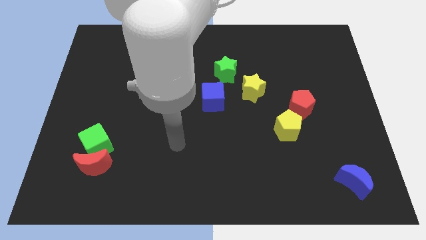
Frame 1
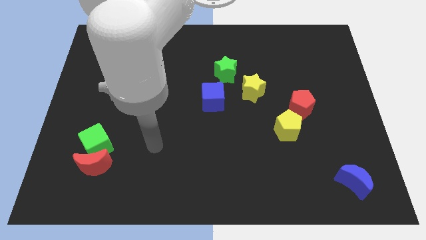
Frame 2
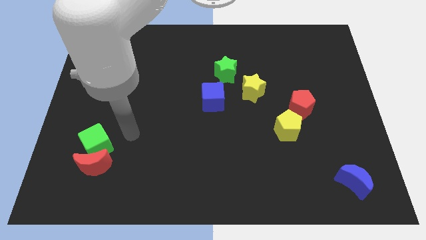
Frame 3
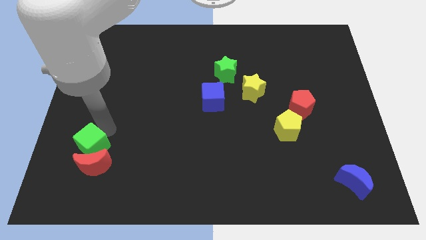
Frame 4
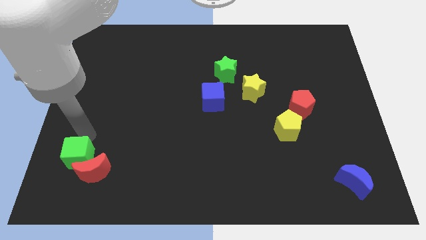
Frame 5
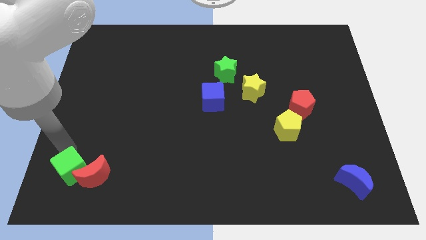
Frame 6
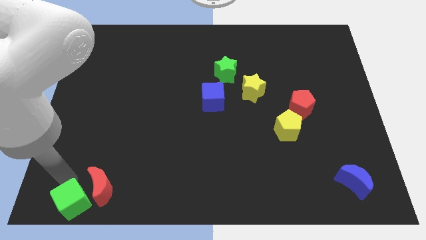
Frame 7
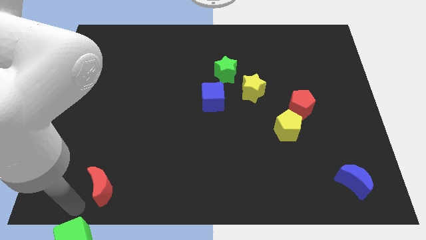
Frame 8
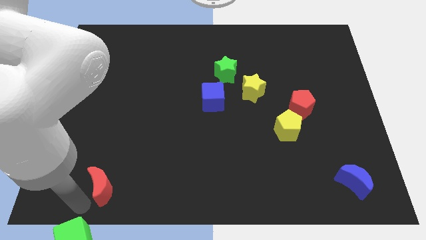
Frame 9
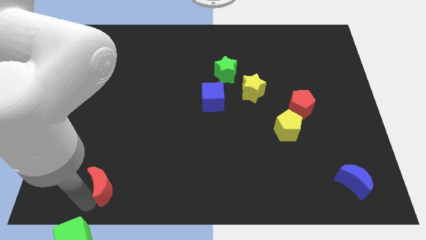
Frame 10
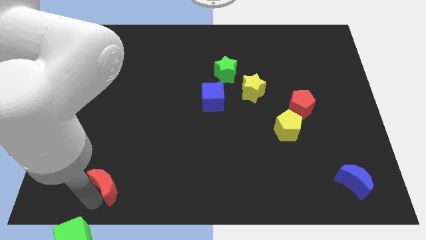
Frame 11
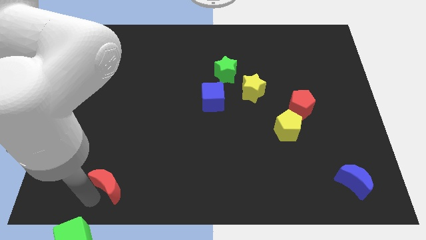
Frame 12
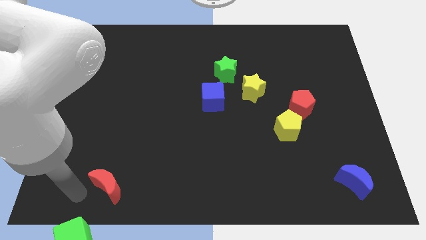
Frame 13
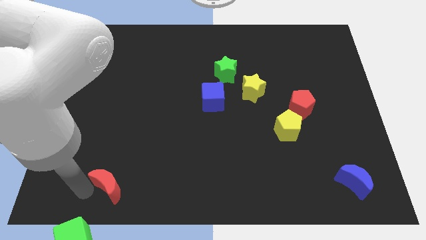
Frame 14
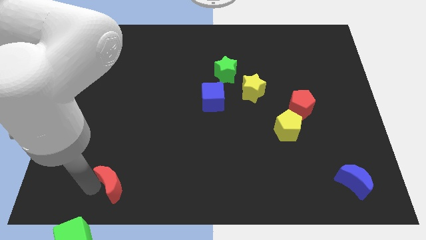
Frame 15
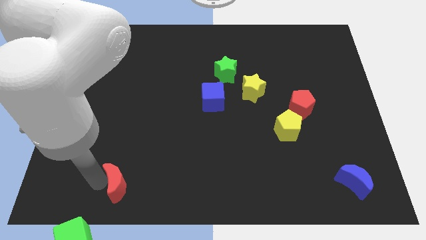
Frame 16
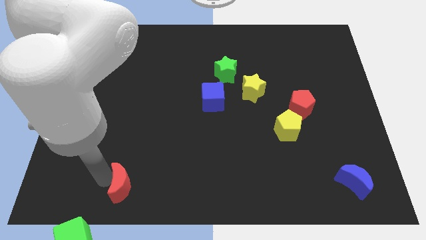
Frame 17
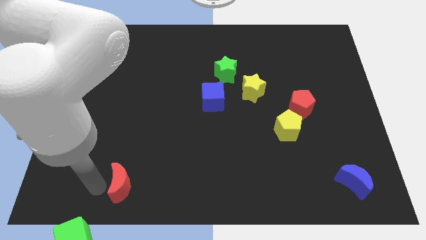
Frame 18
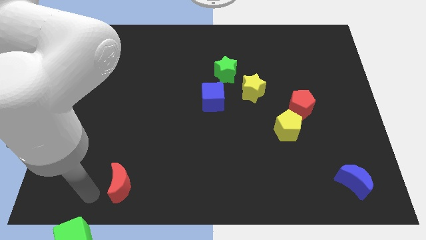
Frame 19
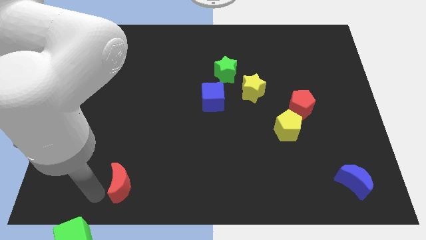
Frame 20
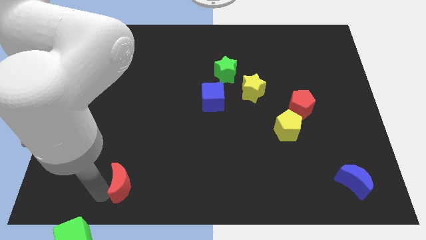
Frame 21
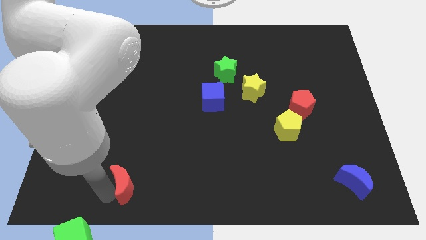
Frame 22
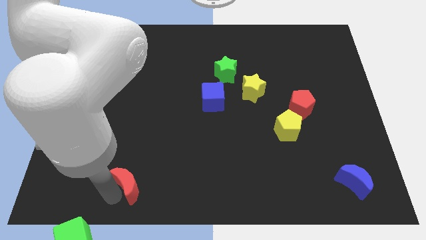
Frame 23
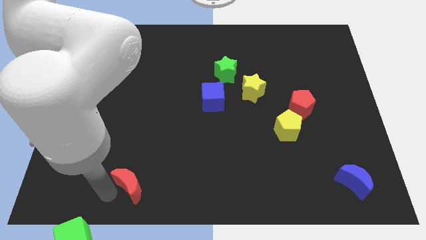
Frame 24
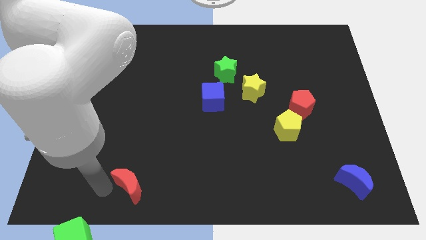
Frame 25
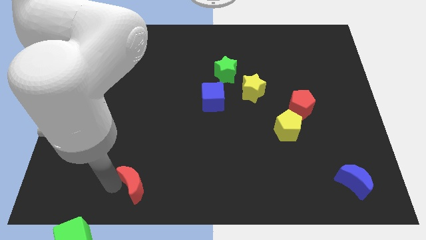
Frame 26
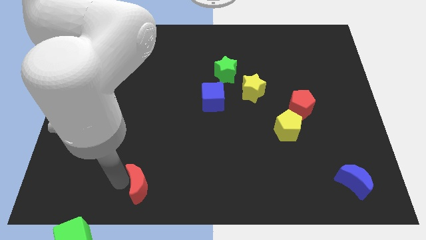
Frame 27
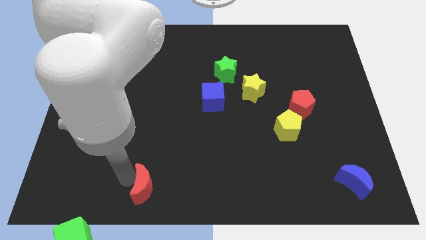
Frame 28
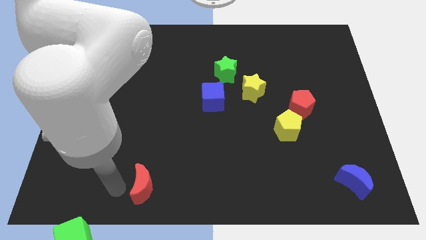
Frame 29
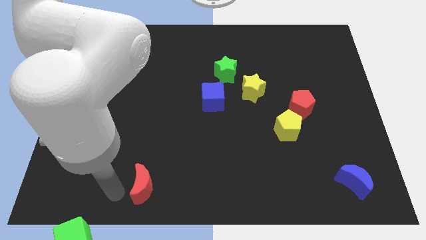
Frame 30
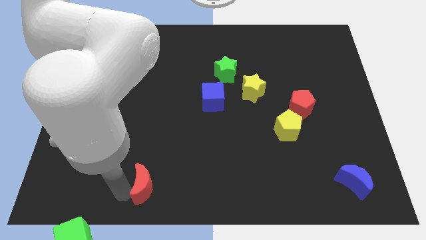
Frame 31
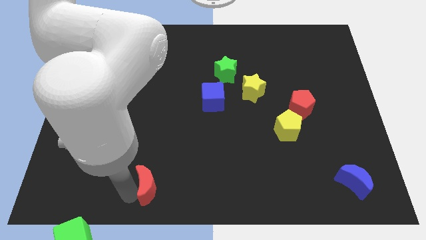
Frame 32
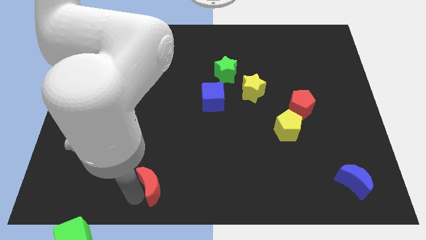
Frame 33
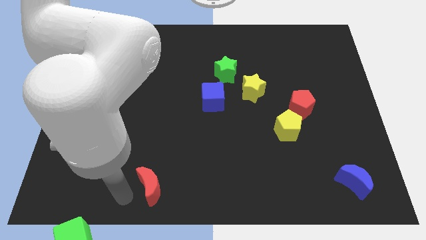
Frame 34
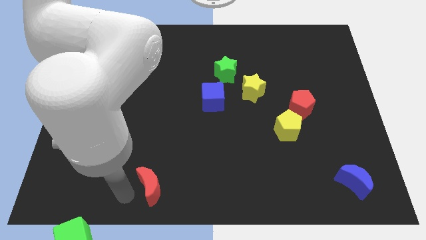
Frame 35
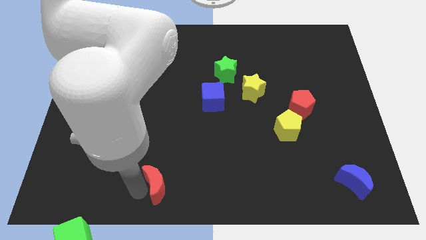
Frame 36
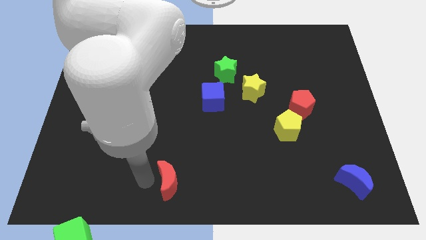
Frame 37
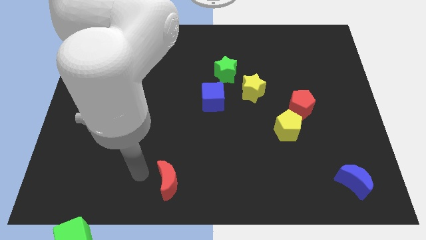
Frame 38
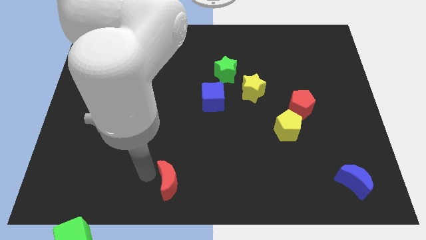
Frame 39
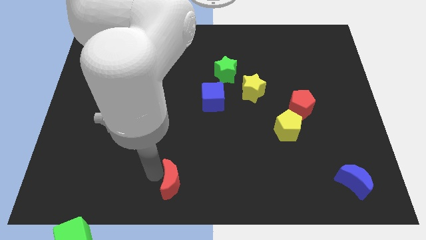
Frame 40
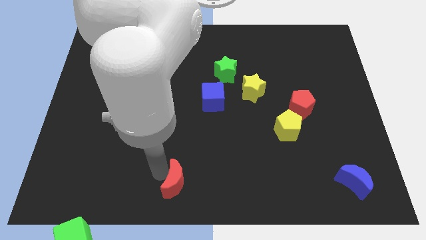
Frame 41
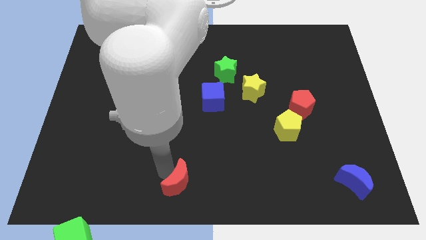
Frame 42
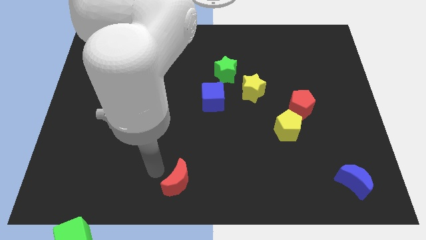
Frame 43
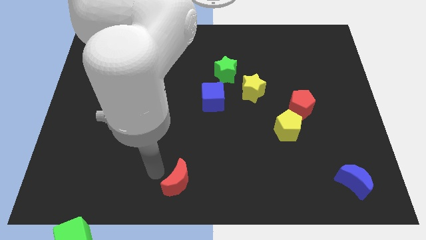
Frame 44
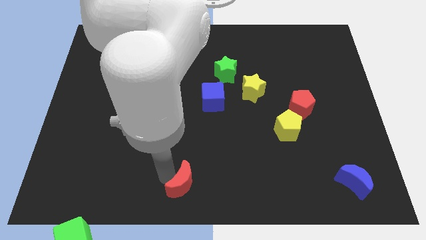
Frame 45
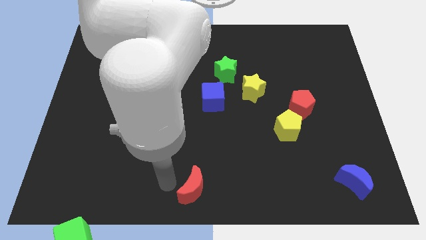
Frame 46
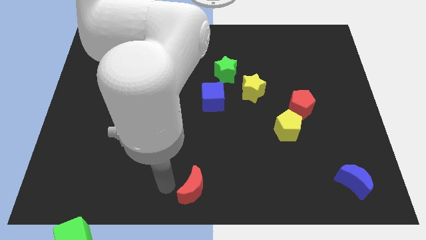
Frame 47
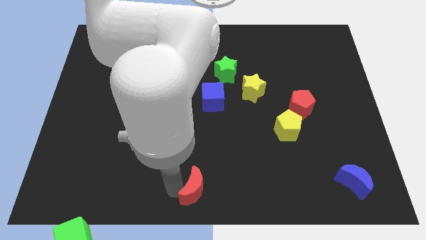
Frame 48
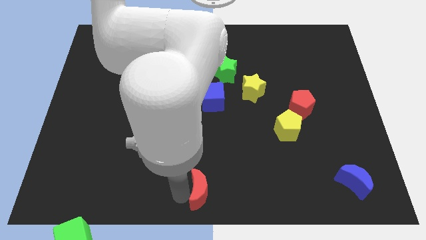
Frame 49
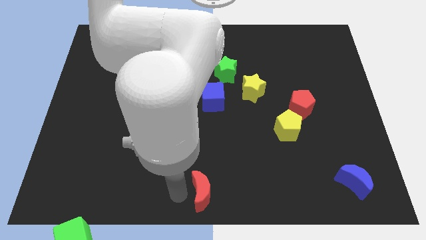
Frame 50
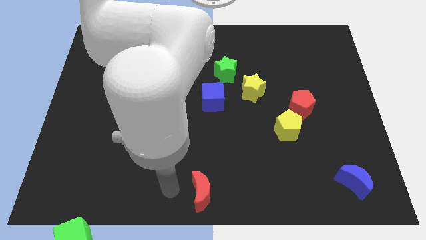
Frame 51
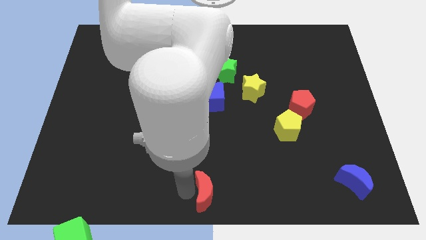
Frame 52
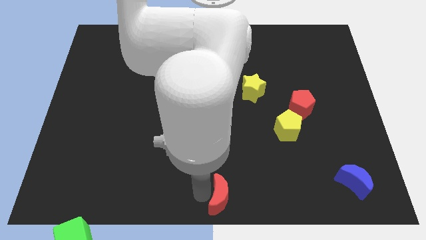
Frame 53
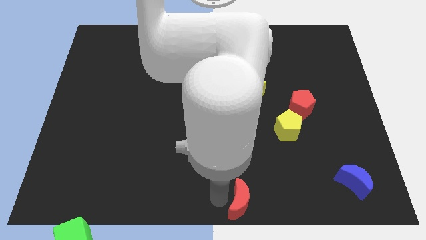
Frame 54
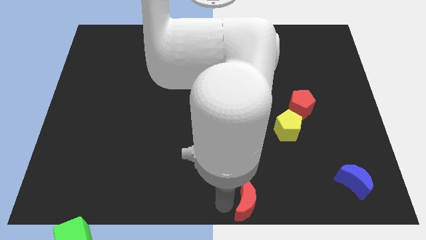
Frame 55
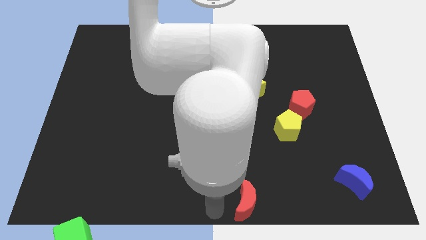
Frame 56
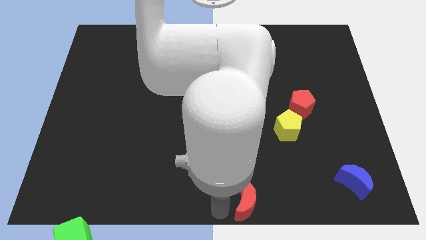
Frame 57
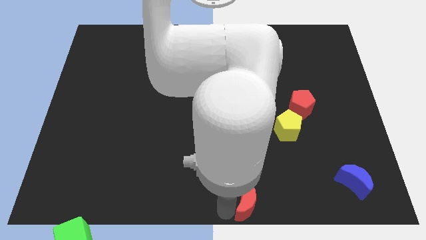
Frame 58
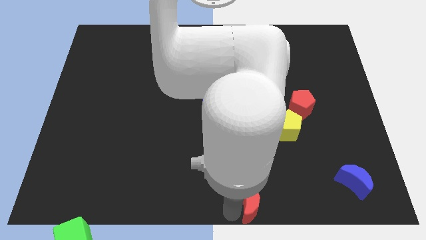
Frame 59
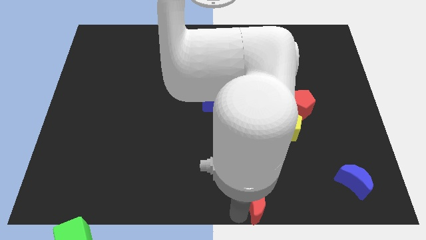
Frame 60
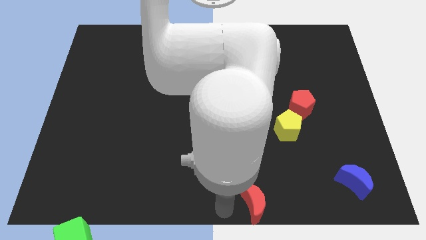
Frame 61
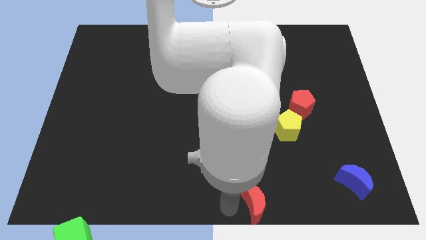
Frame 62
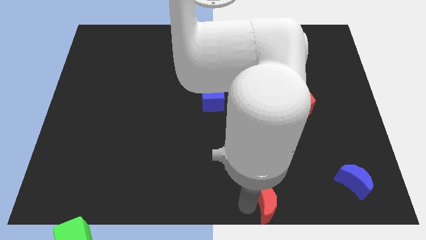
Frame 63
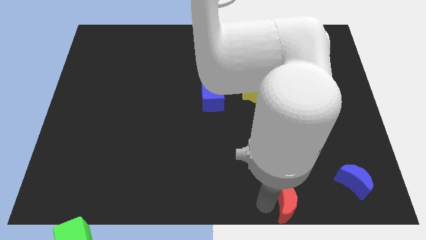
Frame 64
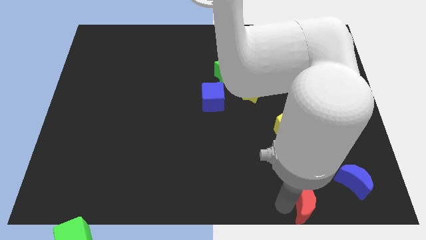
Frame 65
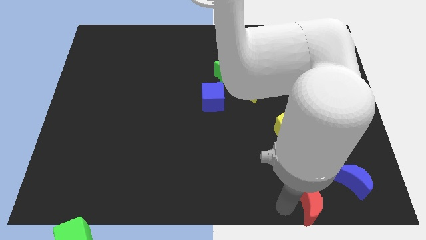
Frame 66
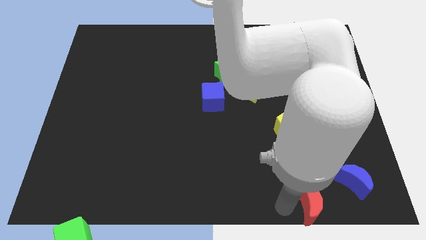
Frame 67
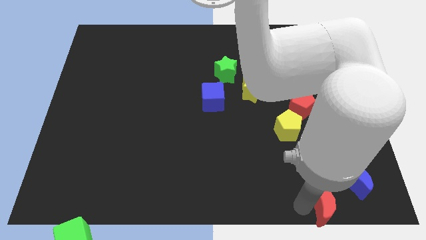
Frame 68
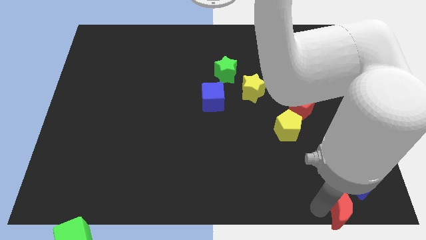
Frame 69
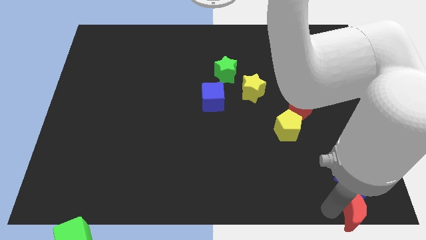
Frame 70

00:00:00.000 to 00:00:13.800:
move the red moon to the bottom right corner
